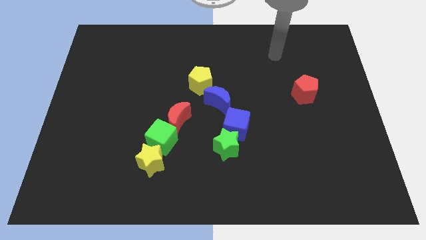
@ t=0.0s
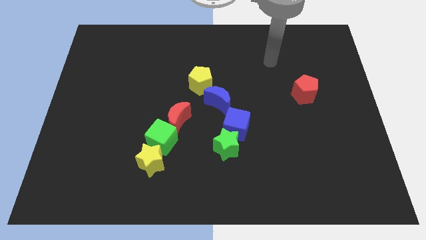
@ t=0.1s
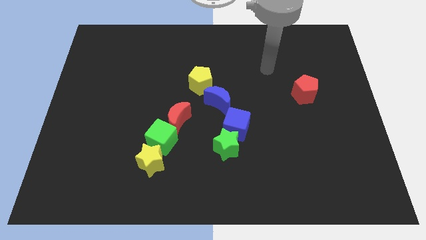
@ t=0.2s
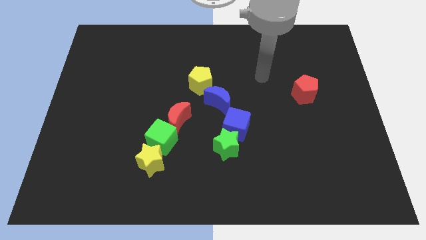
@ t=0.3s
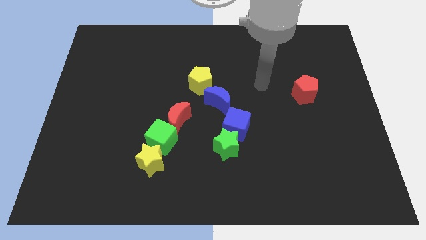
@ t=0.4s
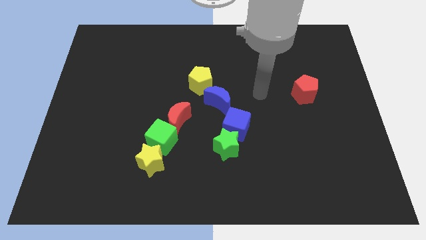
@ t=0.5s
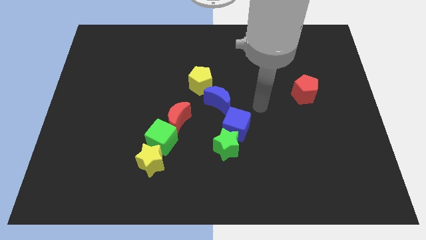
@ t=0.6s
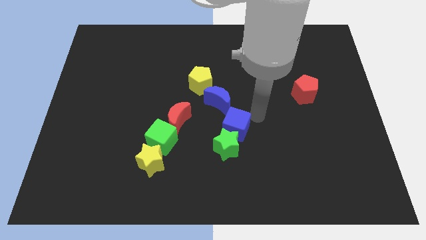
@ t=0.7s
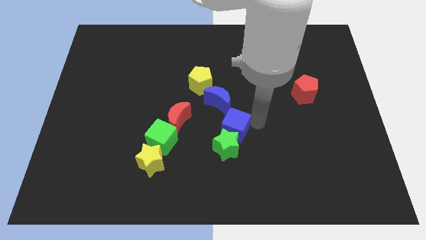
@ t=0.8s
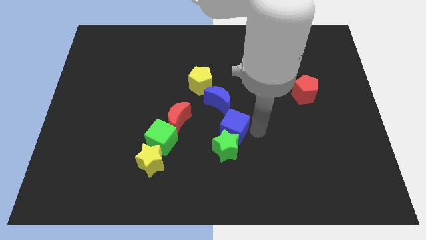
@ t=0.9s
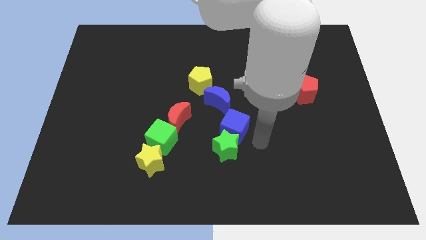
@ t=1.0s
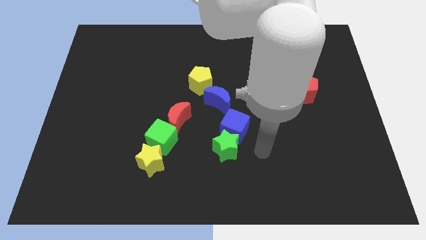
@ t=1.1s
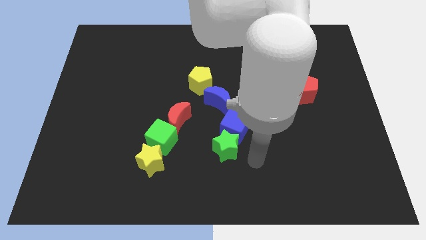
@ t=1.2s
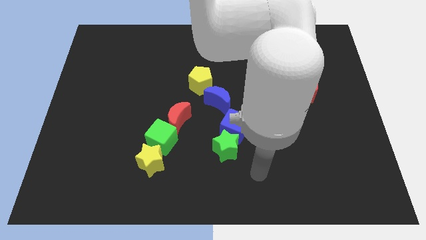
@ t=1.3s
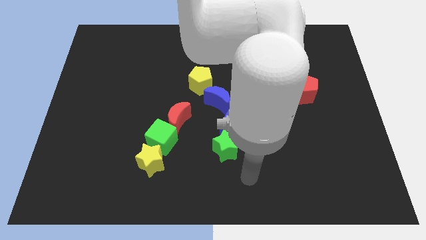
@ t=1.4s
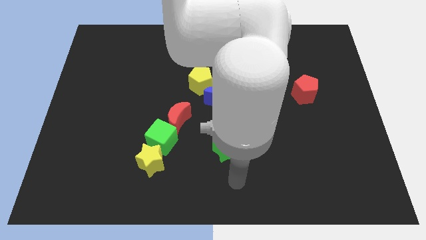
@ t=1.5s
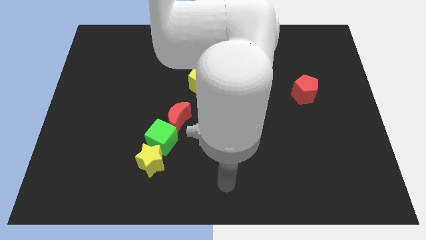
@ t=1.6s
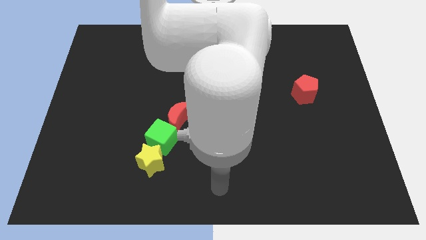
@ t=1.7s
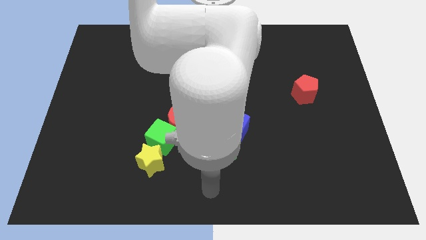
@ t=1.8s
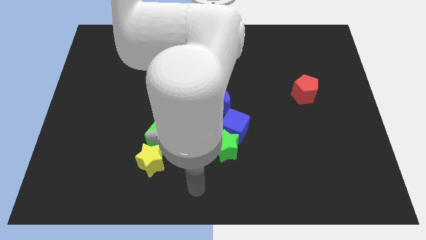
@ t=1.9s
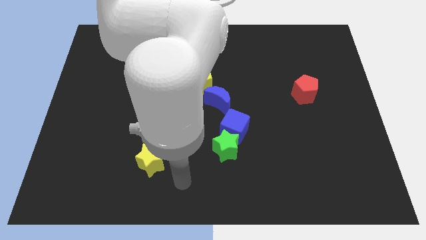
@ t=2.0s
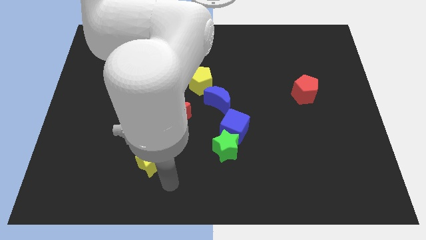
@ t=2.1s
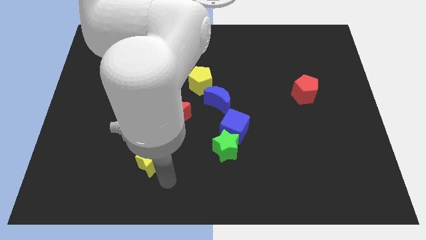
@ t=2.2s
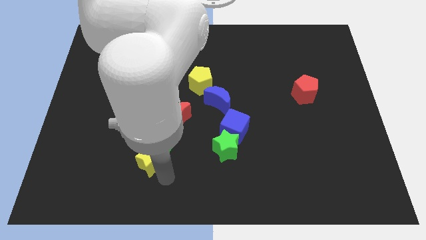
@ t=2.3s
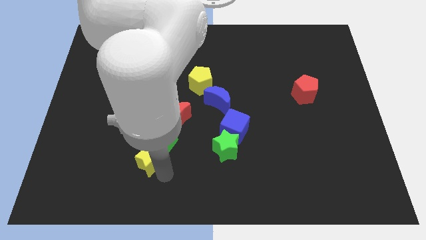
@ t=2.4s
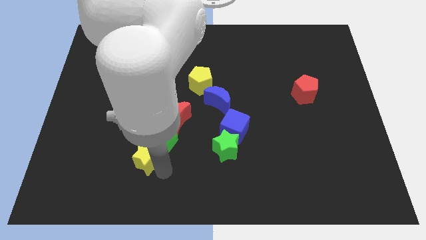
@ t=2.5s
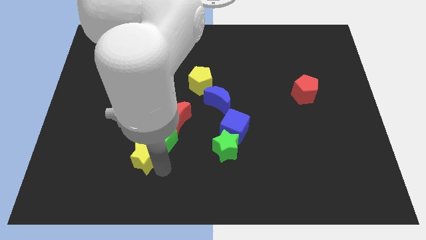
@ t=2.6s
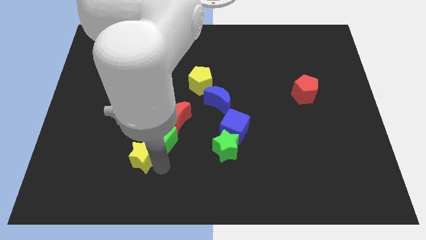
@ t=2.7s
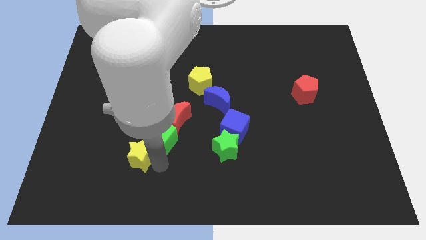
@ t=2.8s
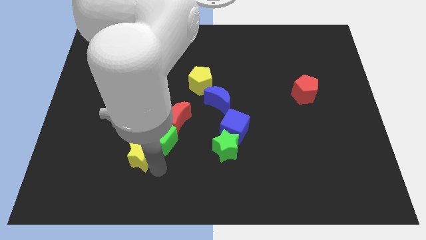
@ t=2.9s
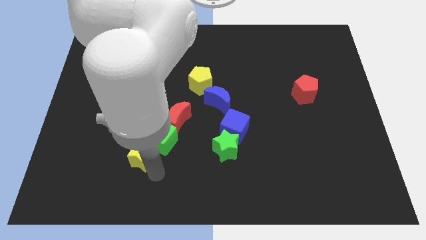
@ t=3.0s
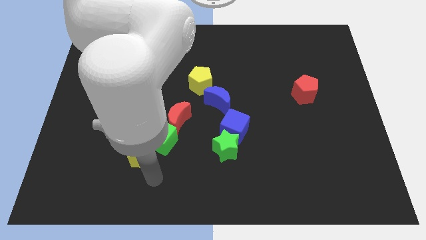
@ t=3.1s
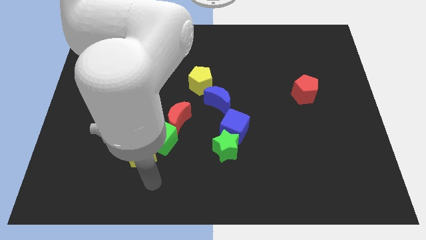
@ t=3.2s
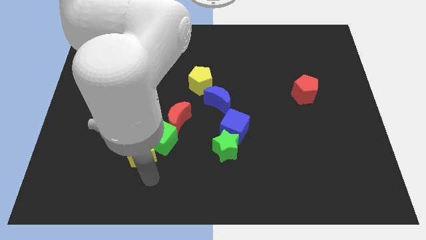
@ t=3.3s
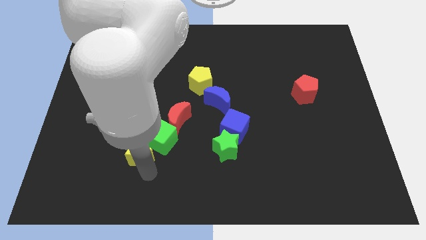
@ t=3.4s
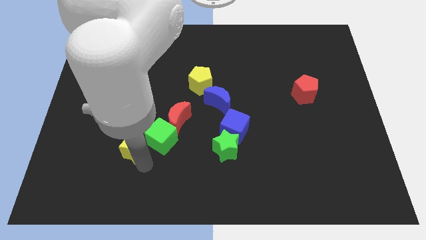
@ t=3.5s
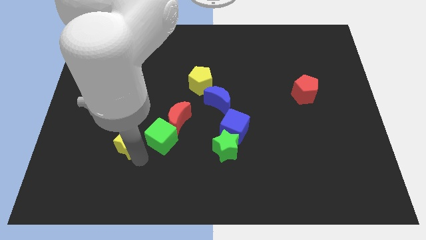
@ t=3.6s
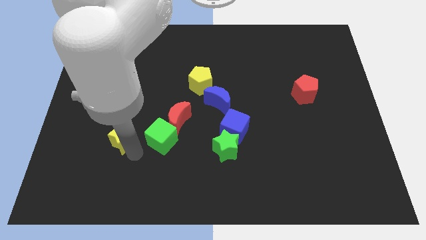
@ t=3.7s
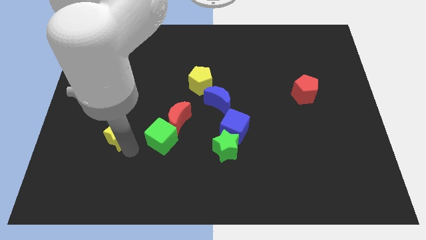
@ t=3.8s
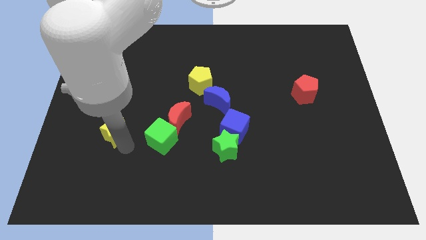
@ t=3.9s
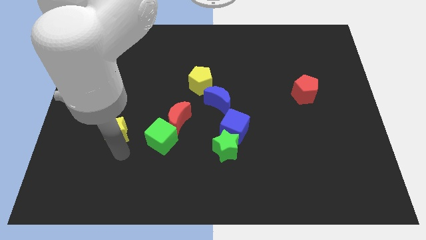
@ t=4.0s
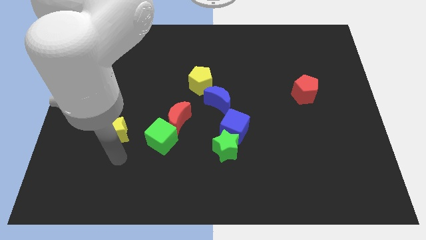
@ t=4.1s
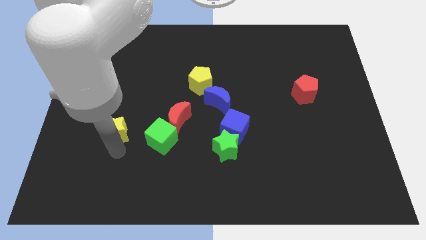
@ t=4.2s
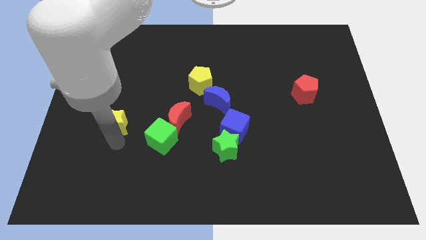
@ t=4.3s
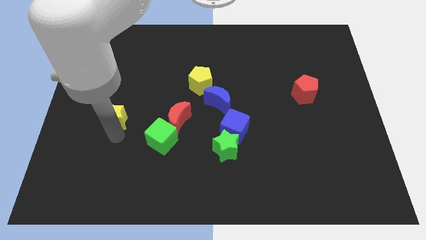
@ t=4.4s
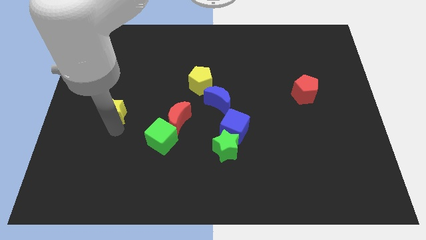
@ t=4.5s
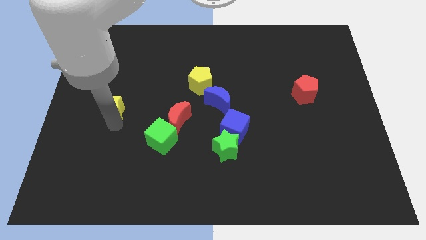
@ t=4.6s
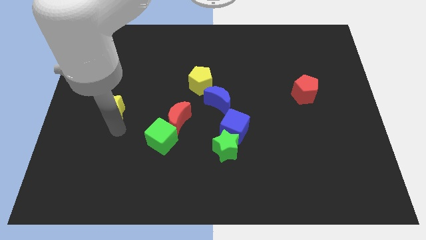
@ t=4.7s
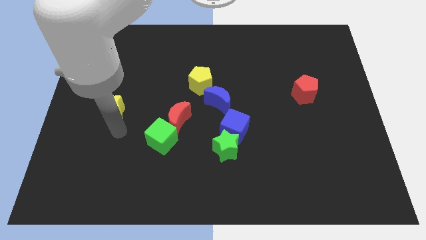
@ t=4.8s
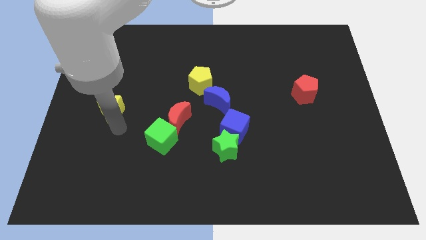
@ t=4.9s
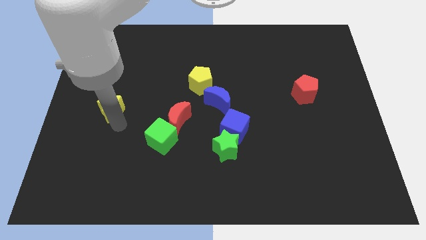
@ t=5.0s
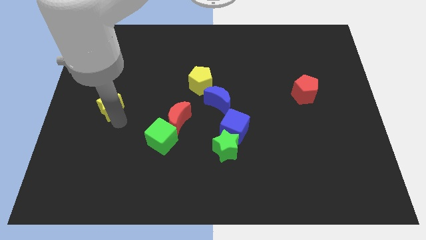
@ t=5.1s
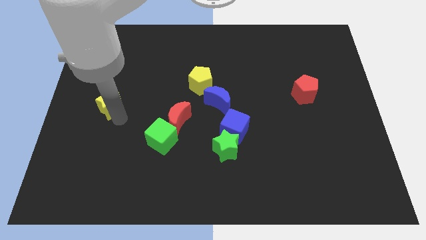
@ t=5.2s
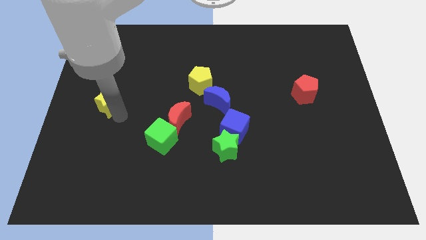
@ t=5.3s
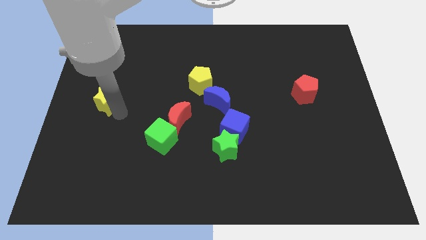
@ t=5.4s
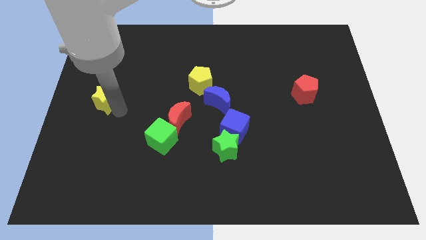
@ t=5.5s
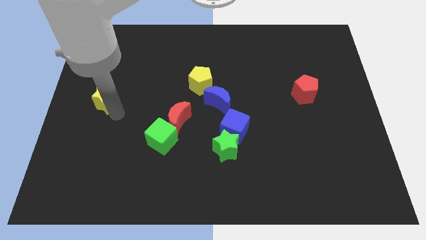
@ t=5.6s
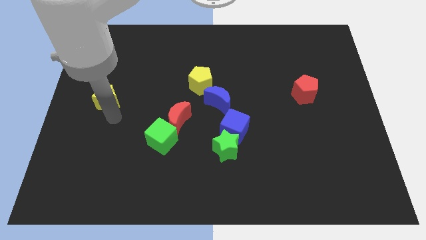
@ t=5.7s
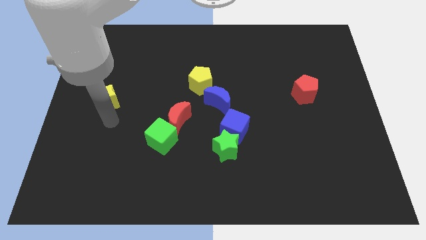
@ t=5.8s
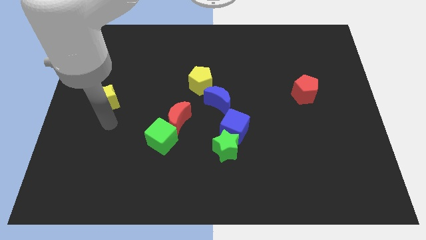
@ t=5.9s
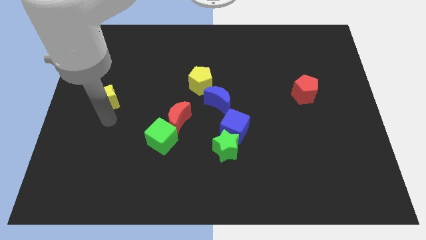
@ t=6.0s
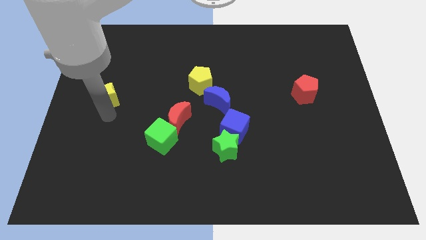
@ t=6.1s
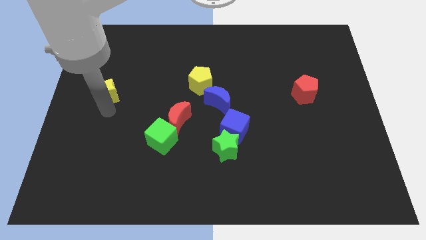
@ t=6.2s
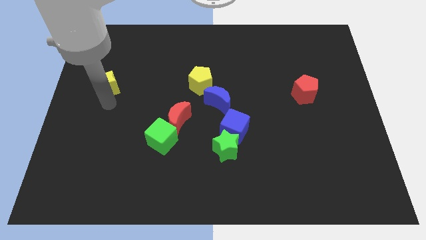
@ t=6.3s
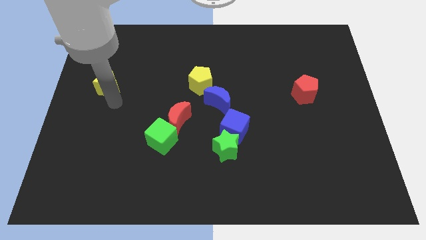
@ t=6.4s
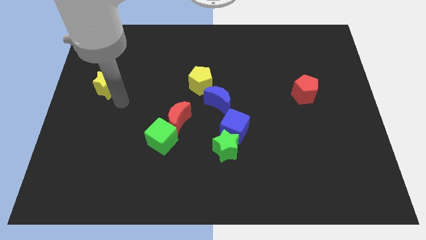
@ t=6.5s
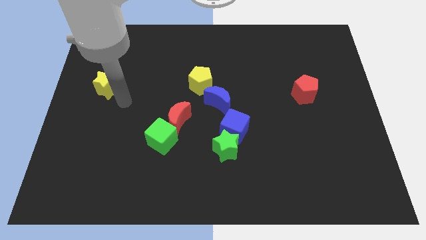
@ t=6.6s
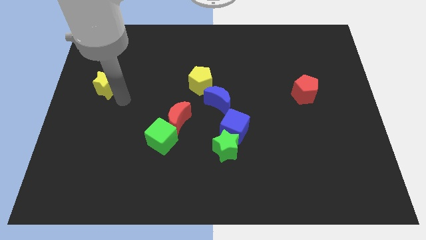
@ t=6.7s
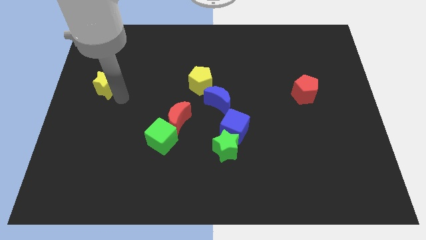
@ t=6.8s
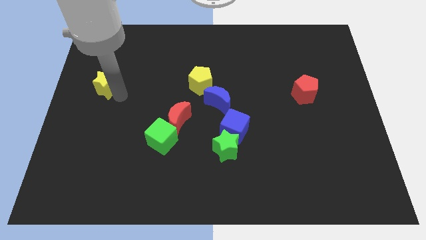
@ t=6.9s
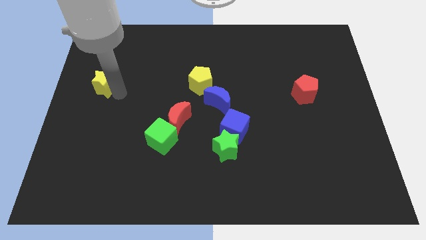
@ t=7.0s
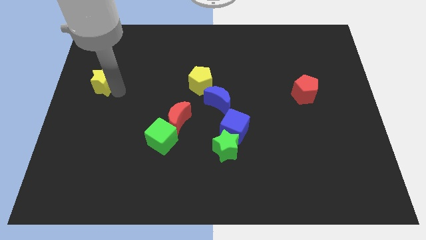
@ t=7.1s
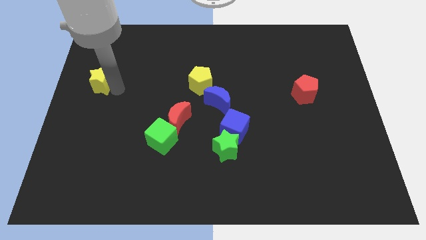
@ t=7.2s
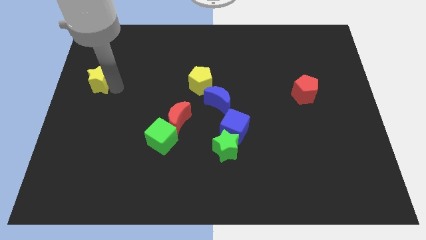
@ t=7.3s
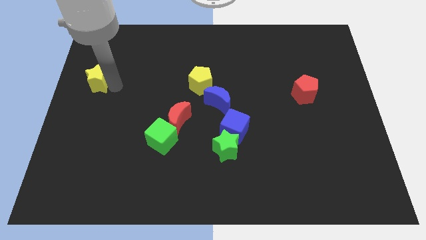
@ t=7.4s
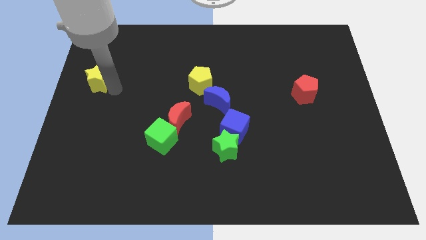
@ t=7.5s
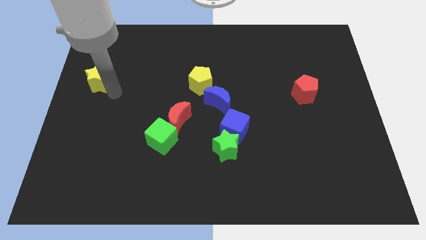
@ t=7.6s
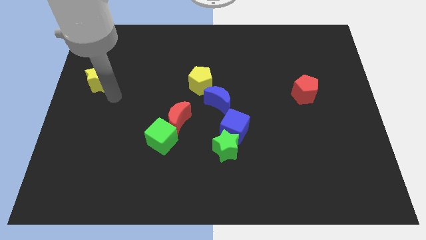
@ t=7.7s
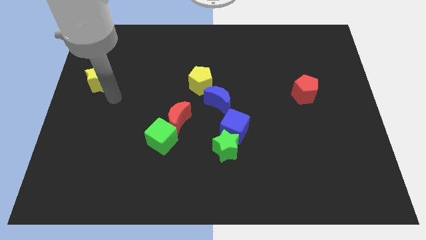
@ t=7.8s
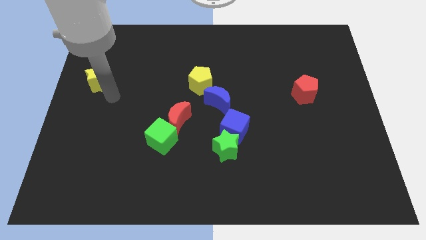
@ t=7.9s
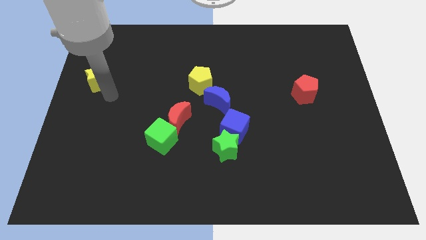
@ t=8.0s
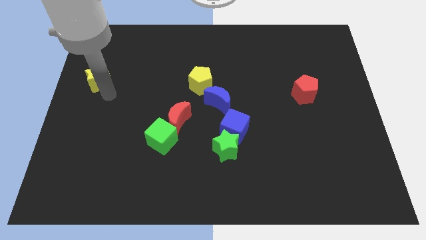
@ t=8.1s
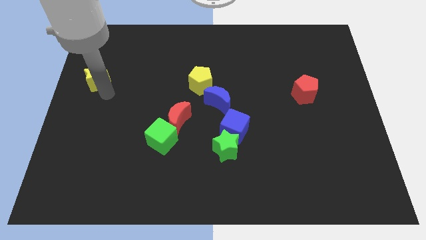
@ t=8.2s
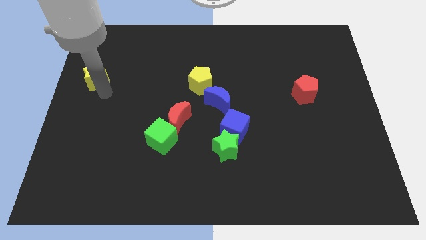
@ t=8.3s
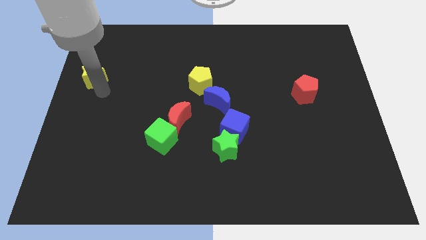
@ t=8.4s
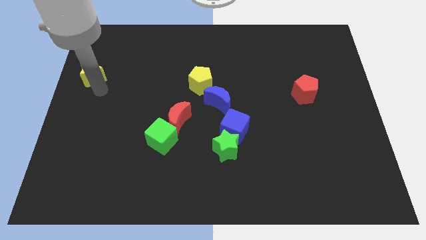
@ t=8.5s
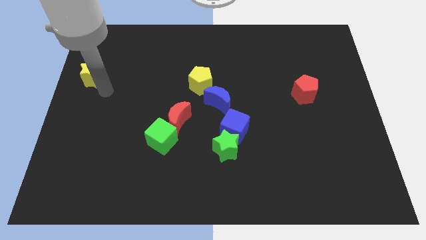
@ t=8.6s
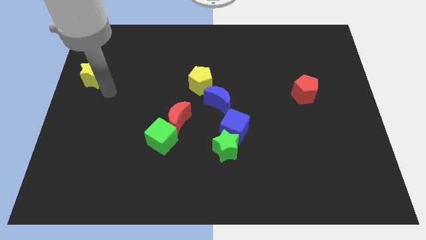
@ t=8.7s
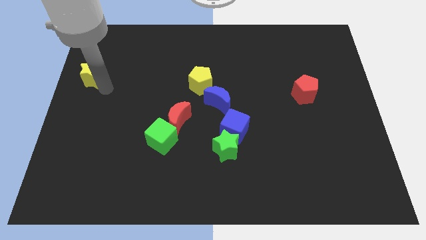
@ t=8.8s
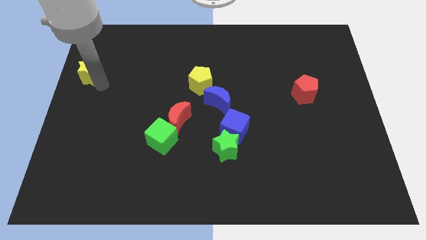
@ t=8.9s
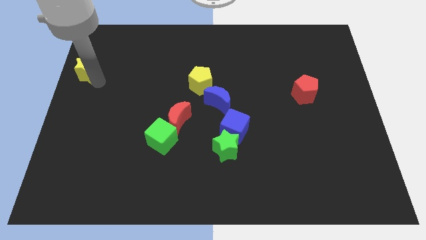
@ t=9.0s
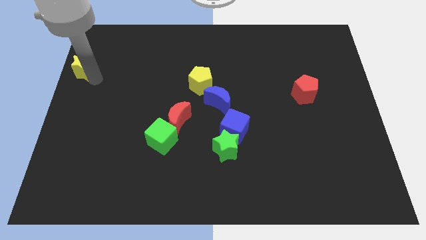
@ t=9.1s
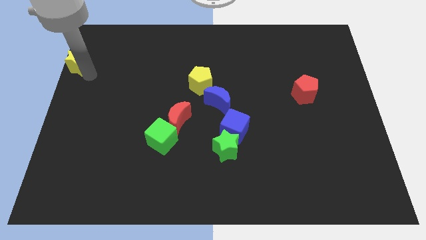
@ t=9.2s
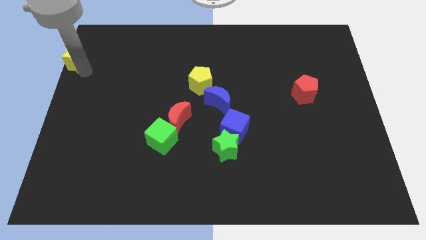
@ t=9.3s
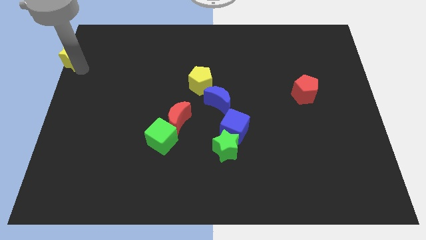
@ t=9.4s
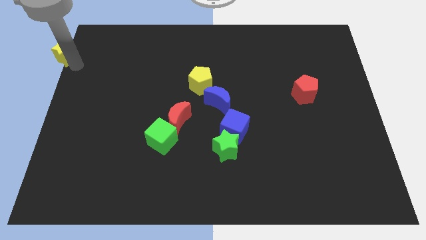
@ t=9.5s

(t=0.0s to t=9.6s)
move the yellow star to the upper left corner
